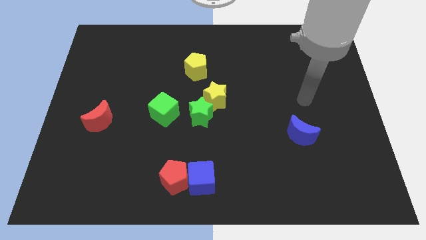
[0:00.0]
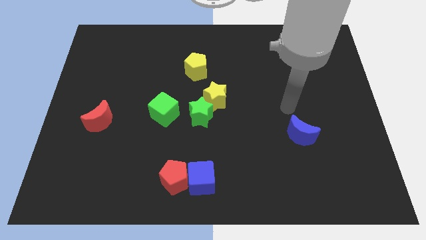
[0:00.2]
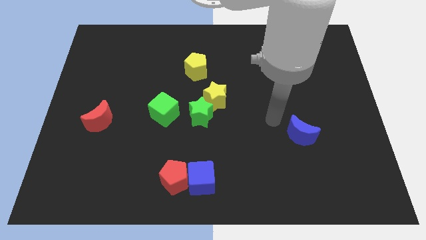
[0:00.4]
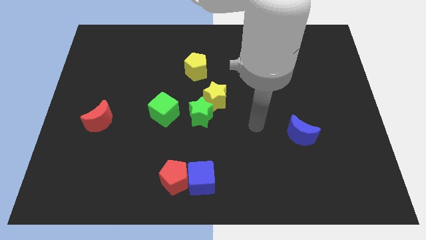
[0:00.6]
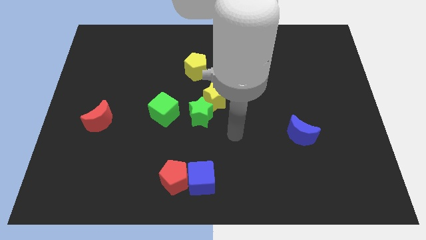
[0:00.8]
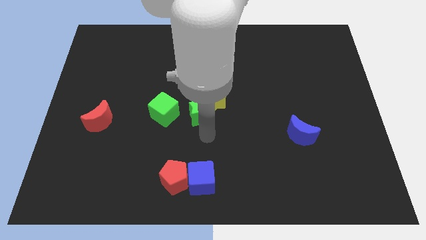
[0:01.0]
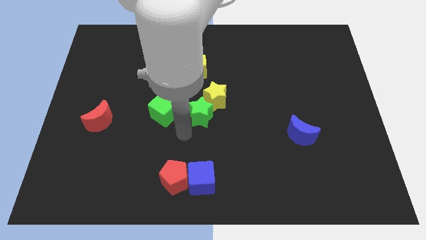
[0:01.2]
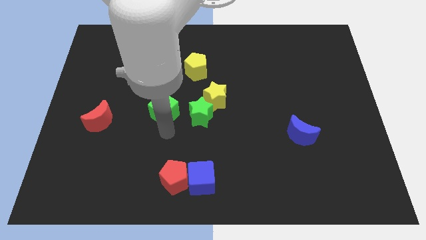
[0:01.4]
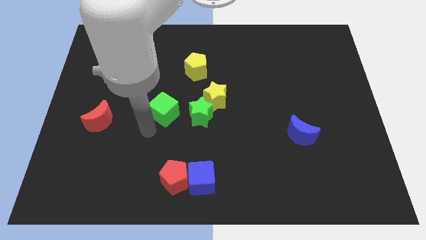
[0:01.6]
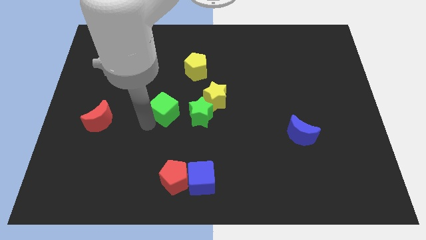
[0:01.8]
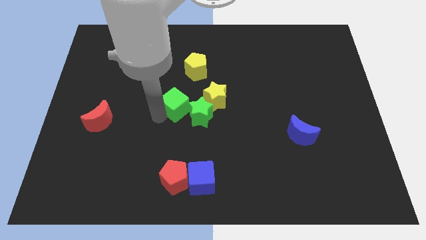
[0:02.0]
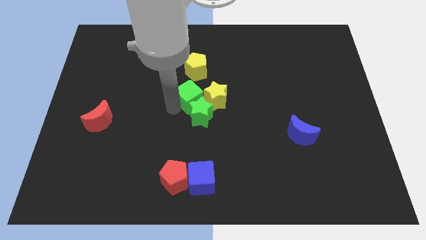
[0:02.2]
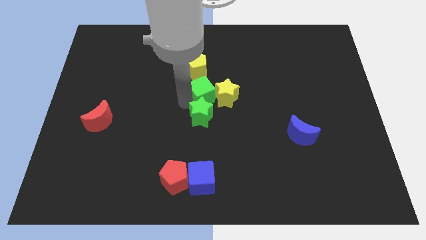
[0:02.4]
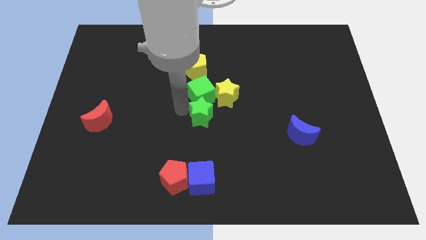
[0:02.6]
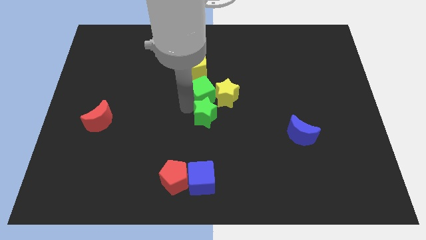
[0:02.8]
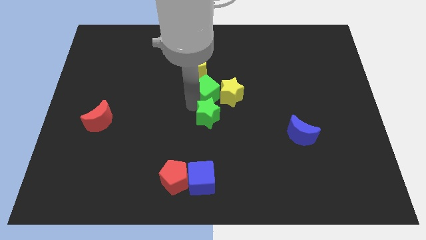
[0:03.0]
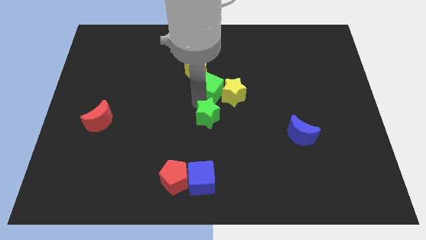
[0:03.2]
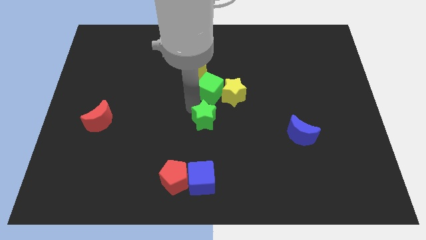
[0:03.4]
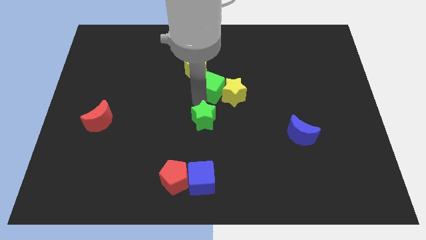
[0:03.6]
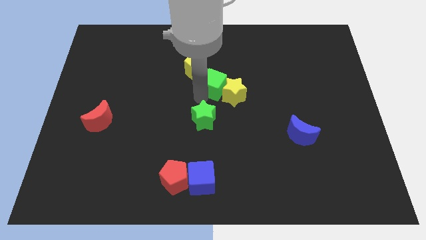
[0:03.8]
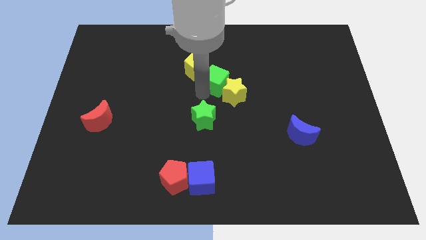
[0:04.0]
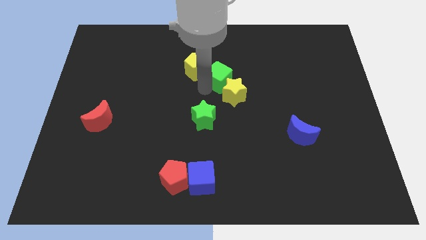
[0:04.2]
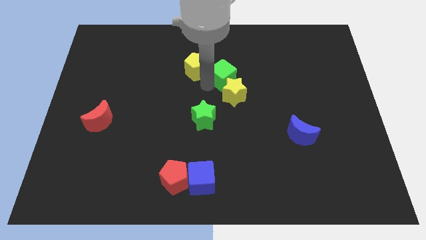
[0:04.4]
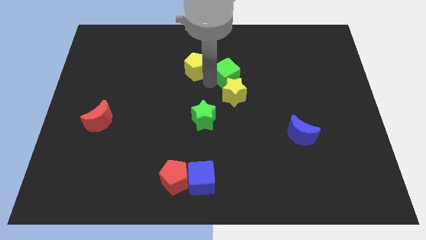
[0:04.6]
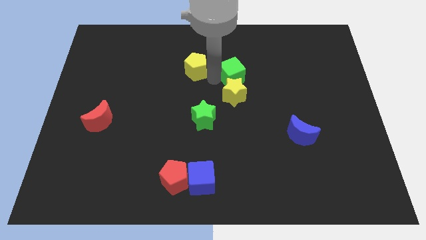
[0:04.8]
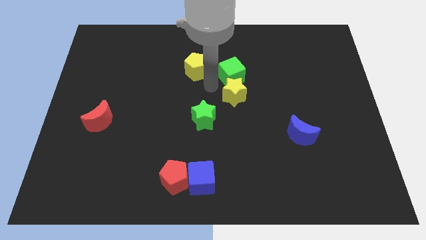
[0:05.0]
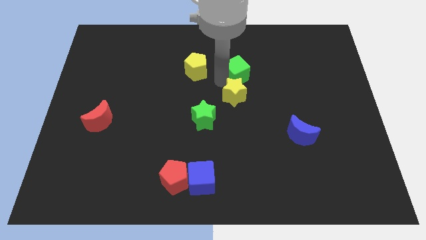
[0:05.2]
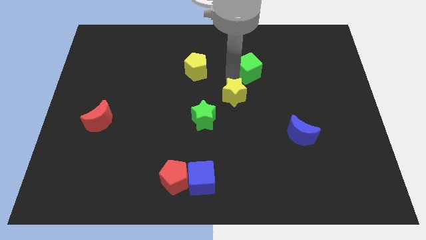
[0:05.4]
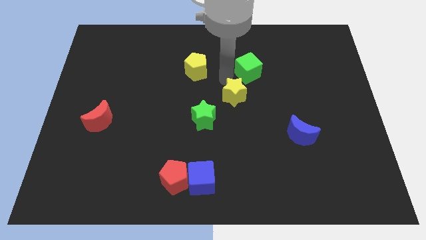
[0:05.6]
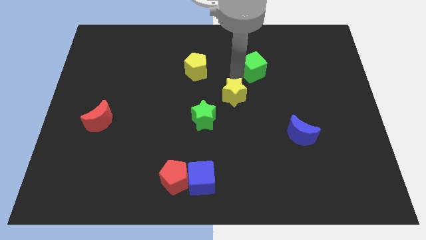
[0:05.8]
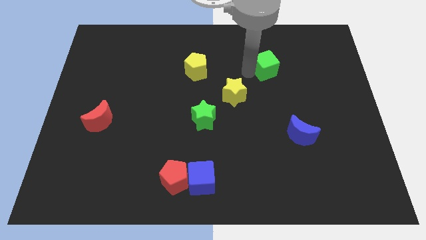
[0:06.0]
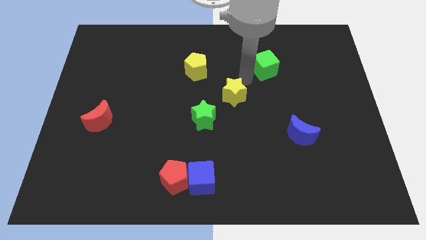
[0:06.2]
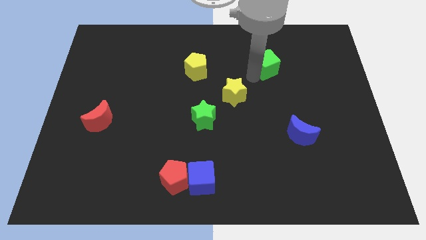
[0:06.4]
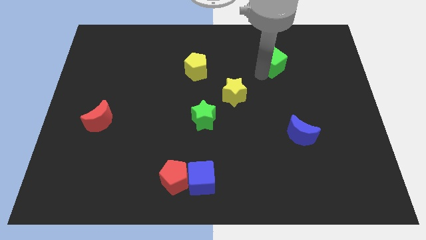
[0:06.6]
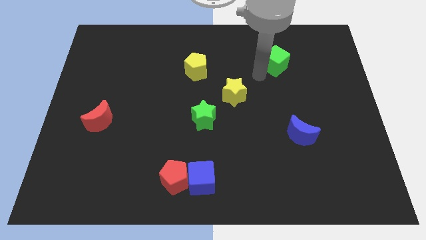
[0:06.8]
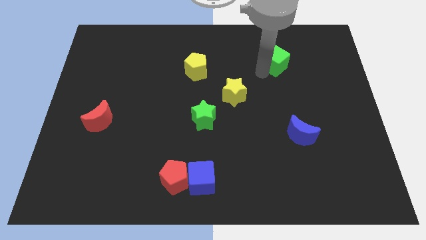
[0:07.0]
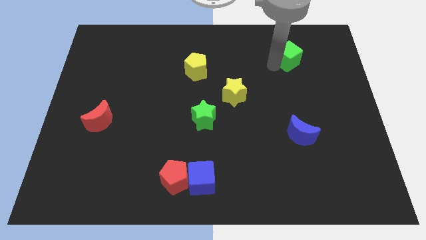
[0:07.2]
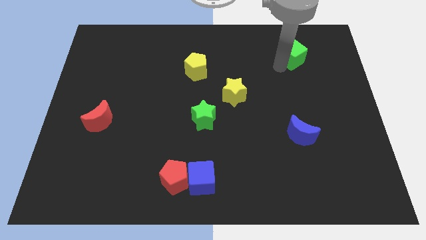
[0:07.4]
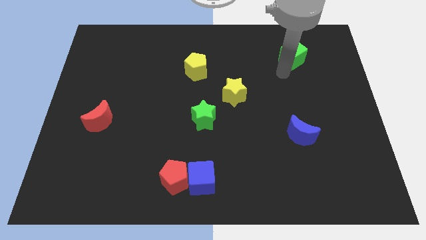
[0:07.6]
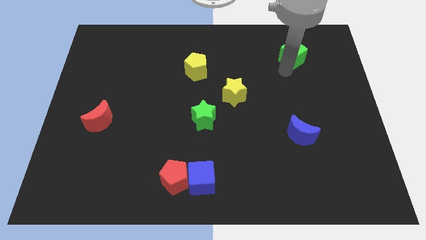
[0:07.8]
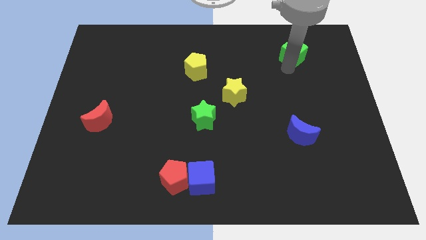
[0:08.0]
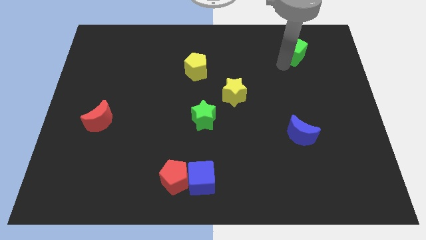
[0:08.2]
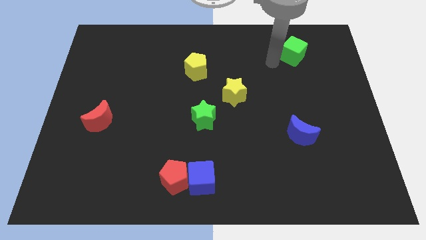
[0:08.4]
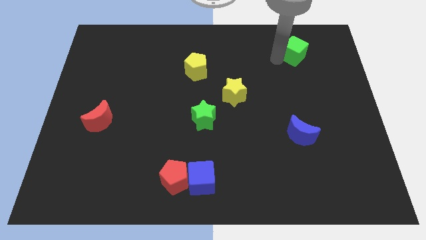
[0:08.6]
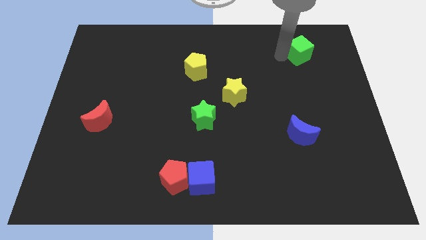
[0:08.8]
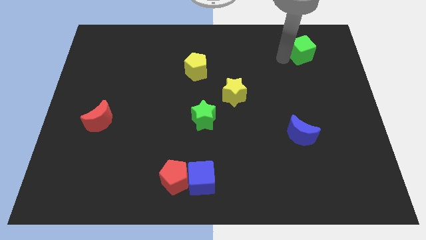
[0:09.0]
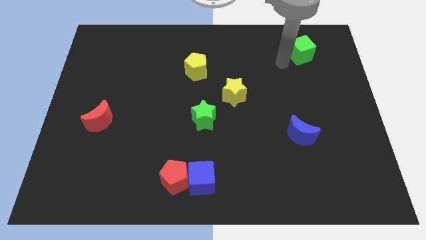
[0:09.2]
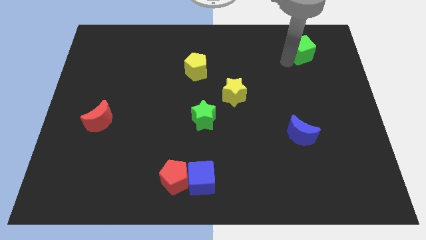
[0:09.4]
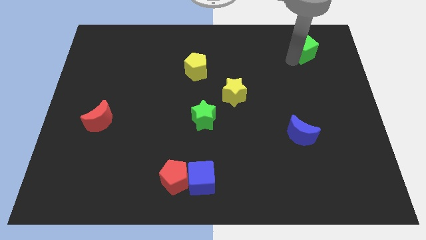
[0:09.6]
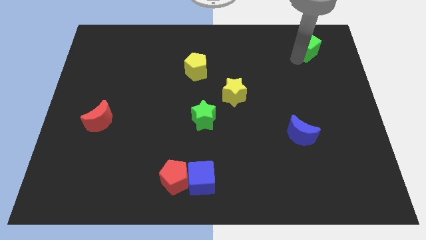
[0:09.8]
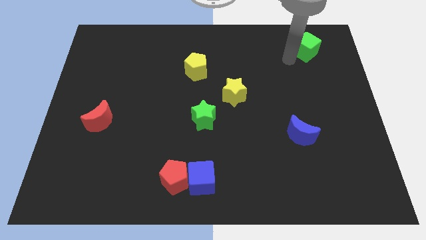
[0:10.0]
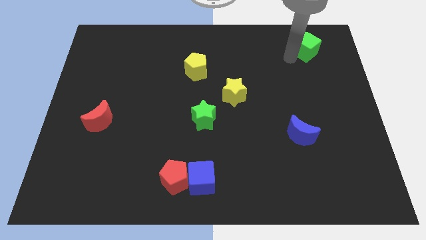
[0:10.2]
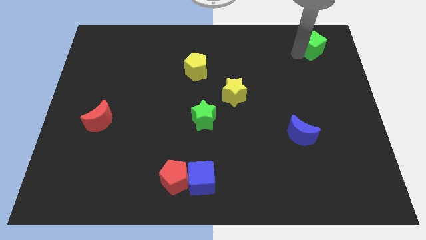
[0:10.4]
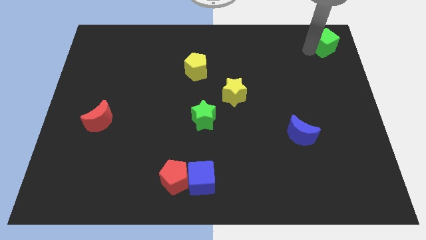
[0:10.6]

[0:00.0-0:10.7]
push the green cube to the top right of the board

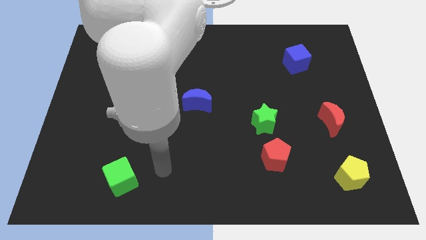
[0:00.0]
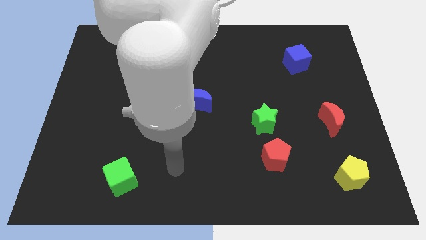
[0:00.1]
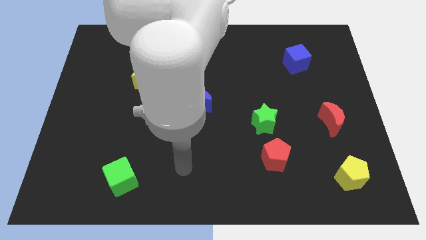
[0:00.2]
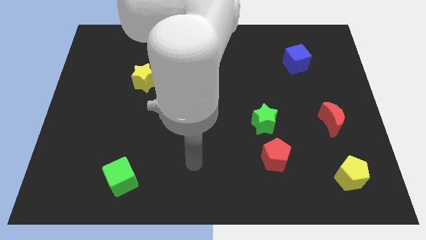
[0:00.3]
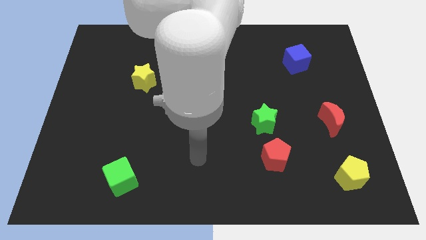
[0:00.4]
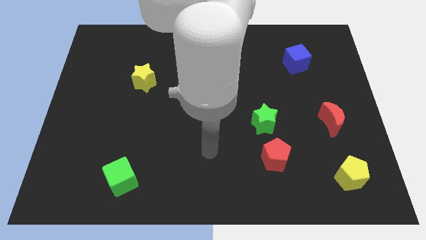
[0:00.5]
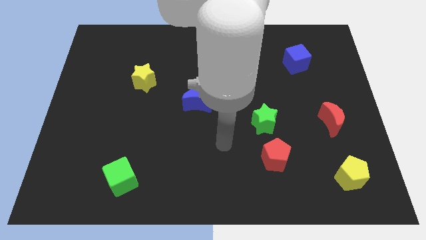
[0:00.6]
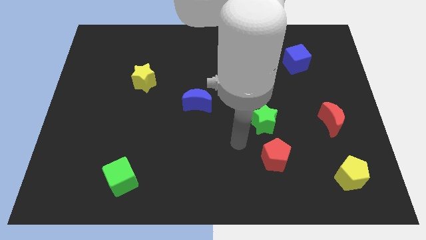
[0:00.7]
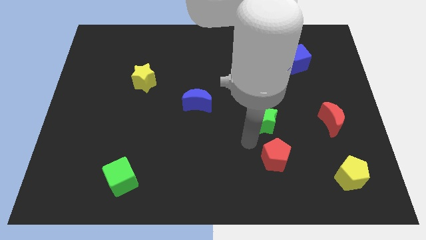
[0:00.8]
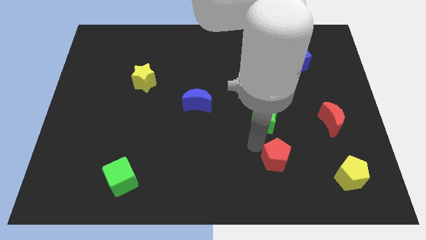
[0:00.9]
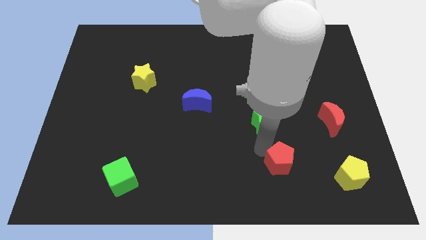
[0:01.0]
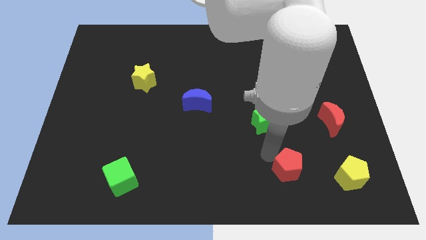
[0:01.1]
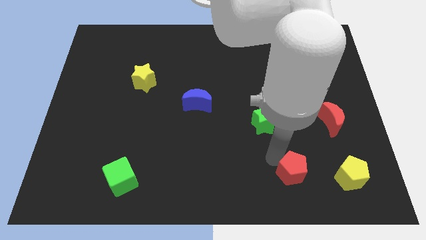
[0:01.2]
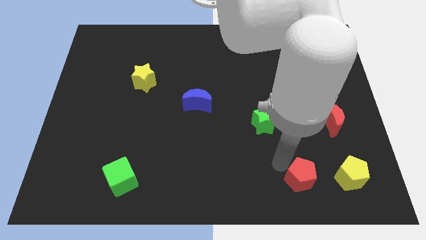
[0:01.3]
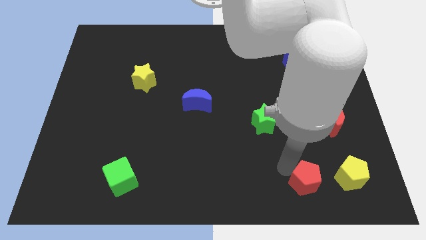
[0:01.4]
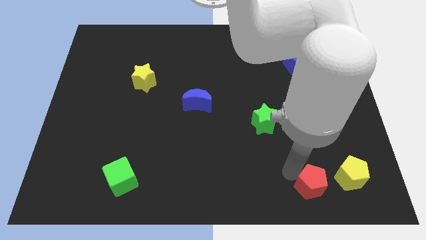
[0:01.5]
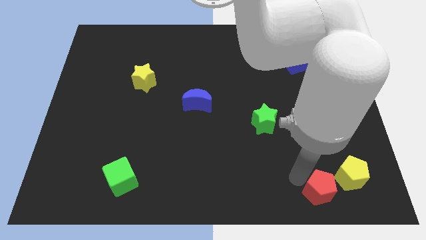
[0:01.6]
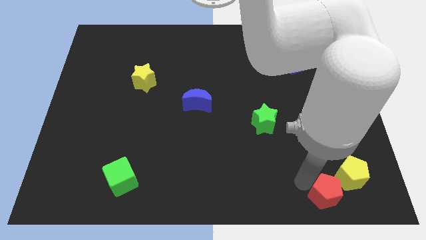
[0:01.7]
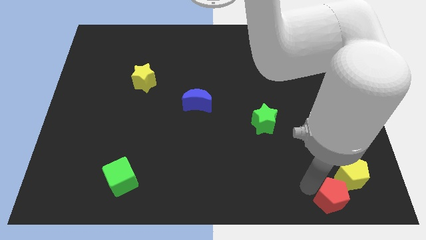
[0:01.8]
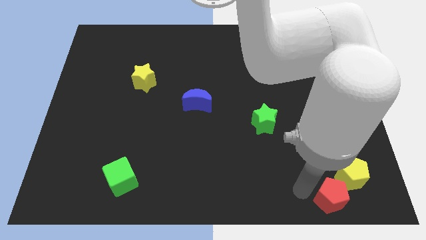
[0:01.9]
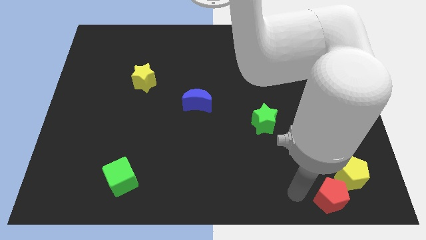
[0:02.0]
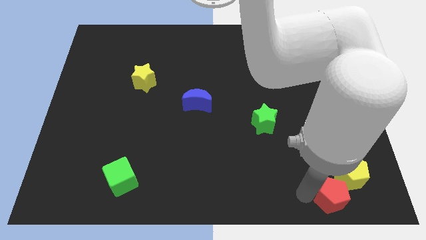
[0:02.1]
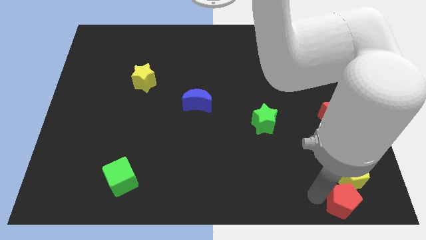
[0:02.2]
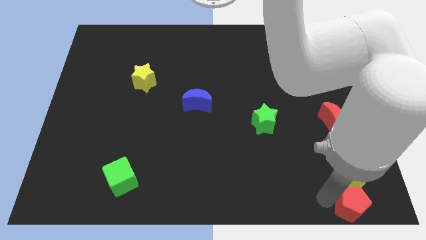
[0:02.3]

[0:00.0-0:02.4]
put the red pentagon to the lower right corner
